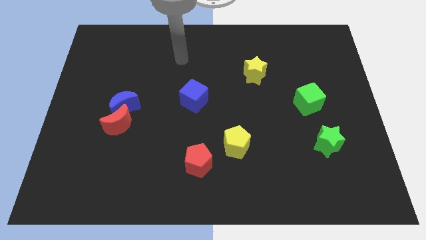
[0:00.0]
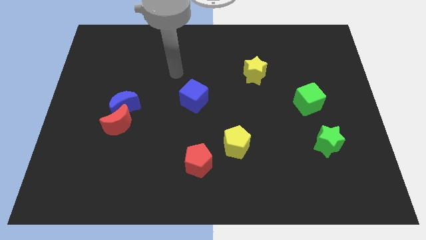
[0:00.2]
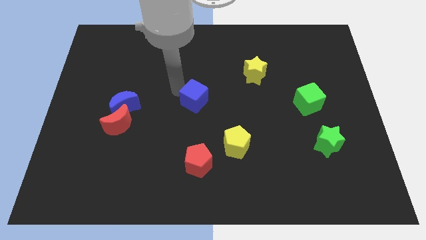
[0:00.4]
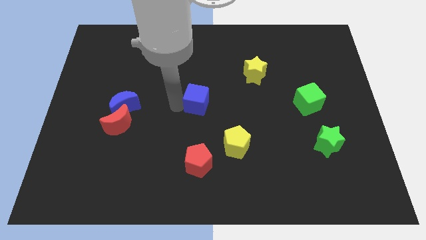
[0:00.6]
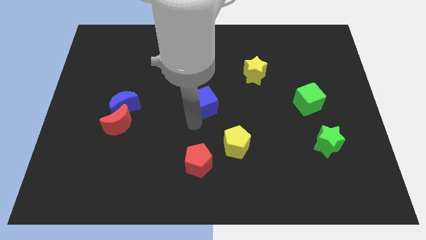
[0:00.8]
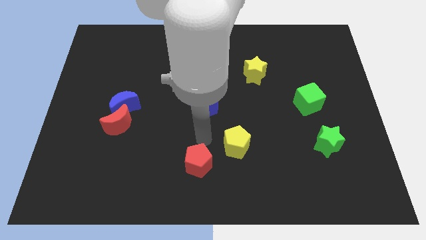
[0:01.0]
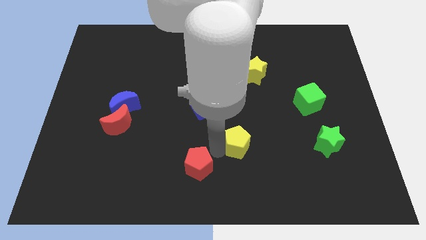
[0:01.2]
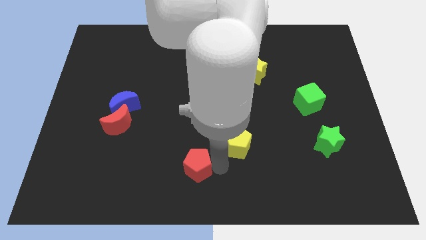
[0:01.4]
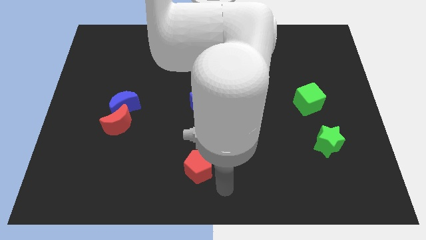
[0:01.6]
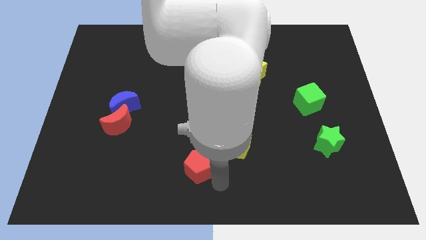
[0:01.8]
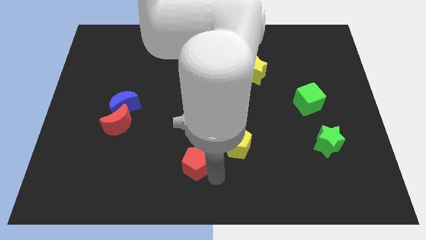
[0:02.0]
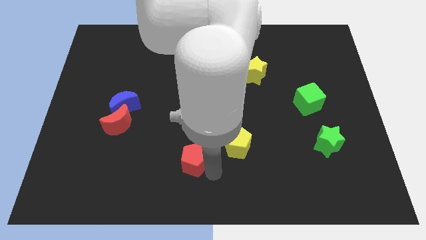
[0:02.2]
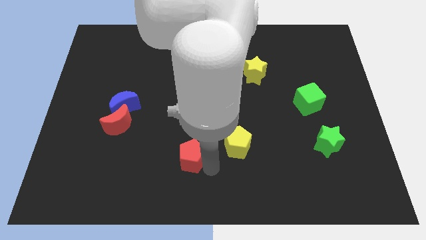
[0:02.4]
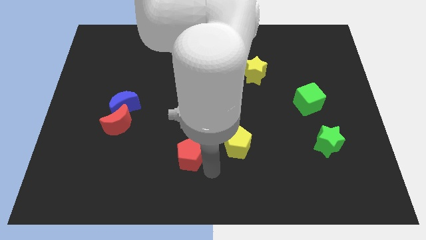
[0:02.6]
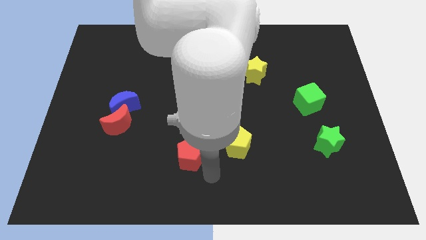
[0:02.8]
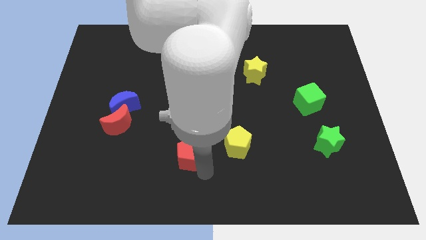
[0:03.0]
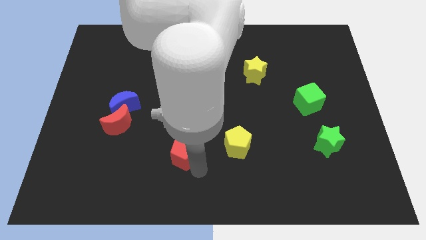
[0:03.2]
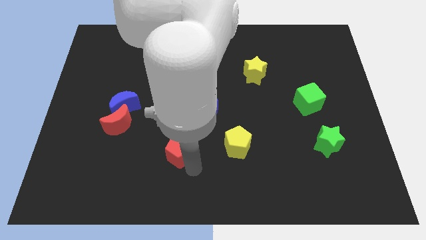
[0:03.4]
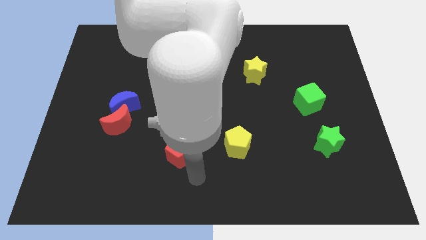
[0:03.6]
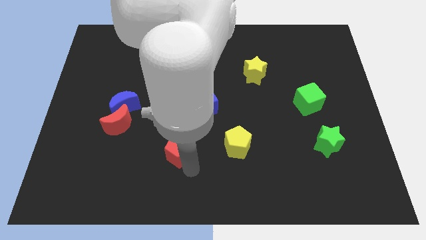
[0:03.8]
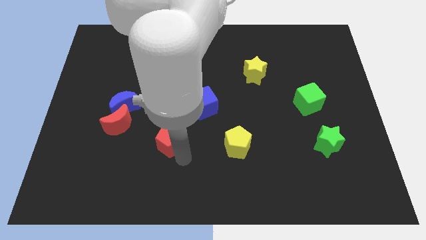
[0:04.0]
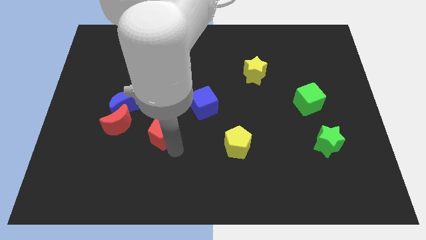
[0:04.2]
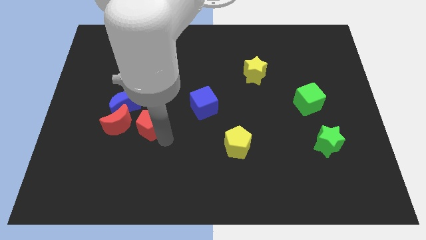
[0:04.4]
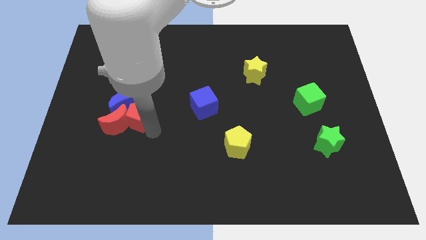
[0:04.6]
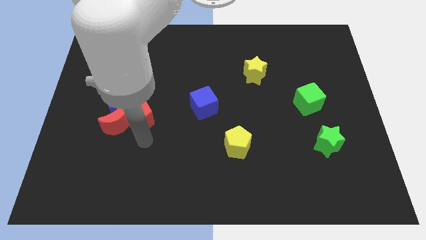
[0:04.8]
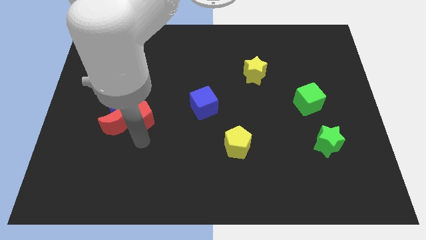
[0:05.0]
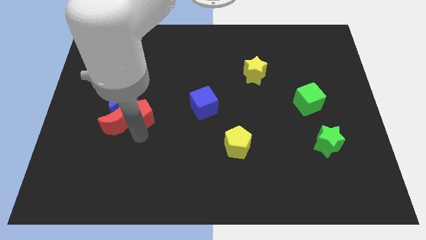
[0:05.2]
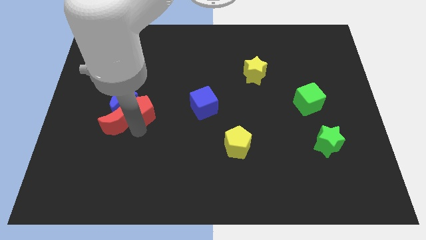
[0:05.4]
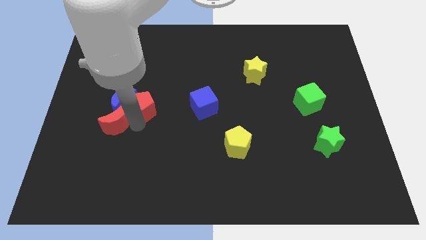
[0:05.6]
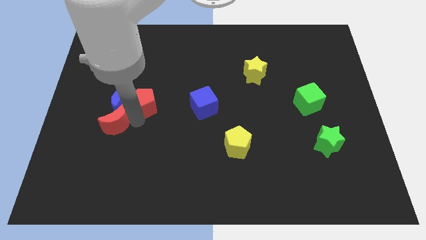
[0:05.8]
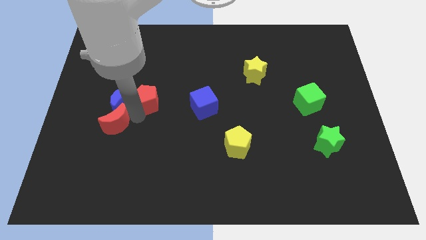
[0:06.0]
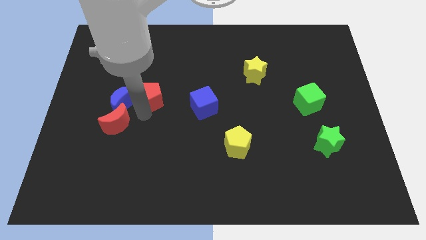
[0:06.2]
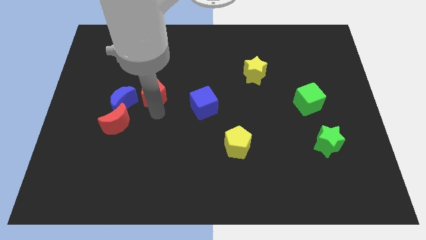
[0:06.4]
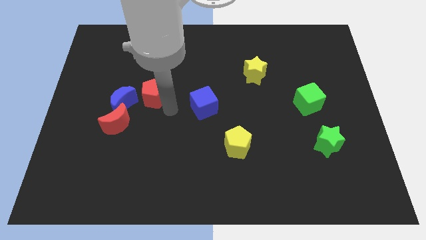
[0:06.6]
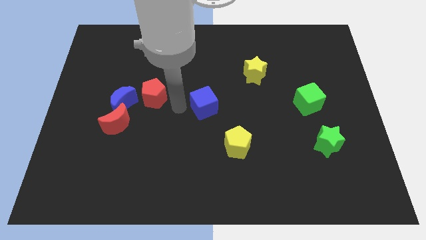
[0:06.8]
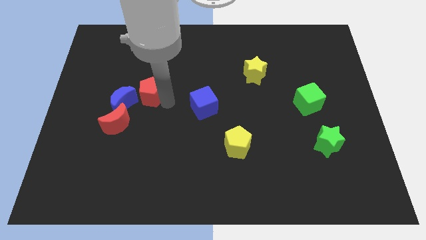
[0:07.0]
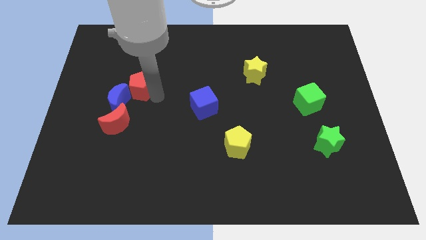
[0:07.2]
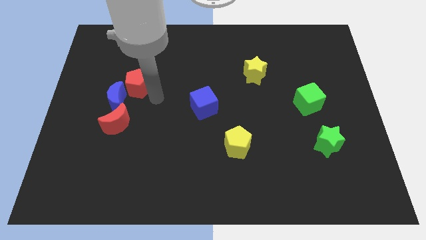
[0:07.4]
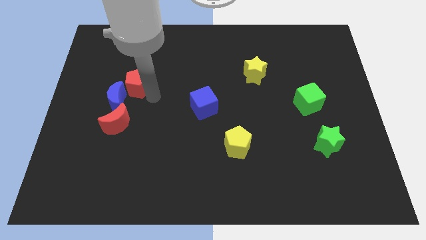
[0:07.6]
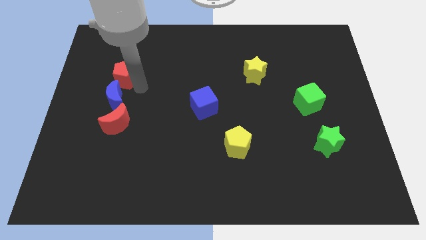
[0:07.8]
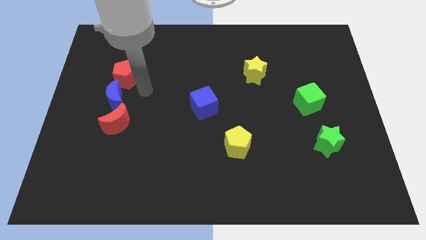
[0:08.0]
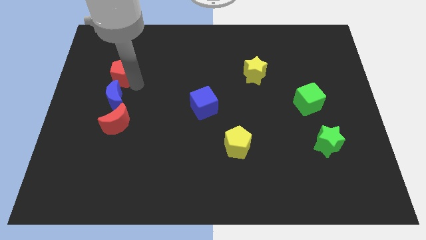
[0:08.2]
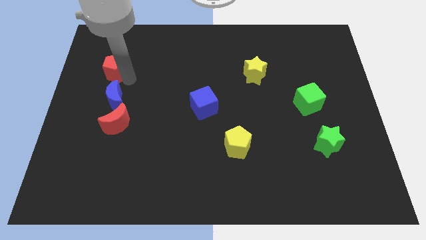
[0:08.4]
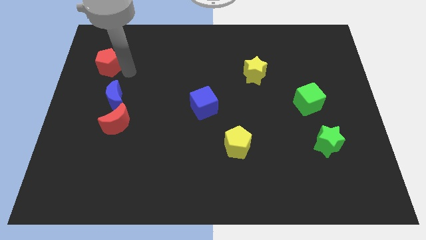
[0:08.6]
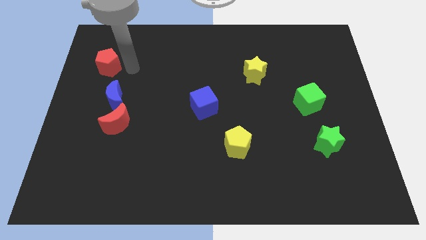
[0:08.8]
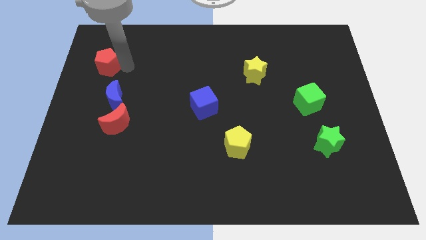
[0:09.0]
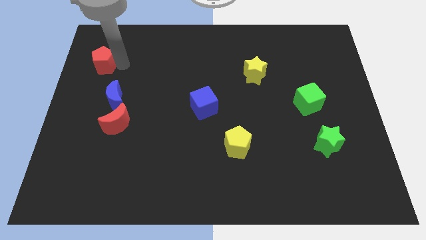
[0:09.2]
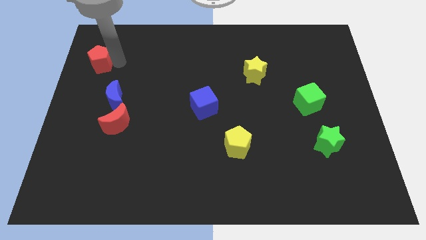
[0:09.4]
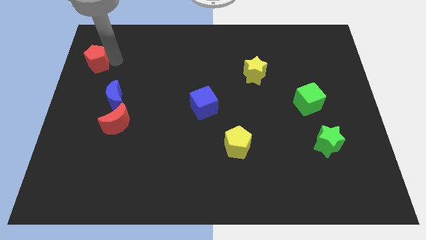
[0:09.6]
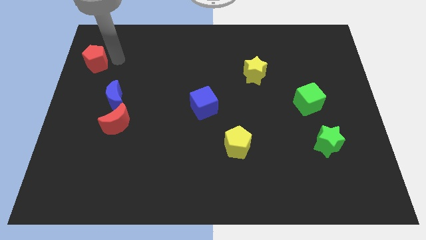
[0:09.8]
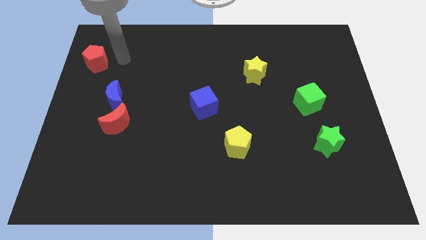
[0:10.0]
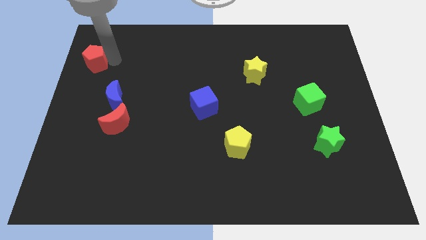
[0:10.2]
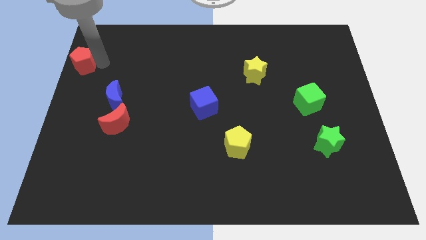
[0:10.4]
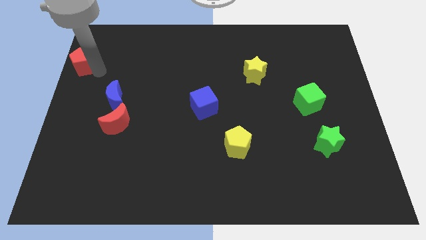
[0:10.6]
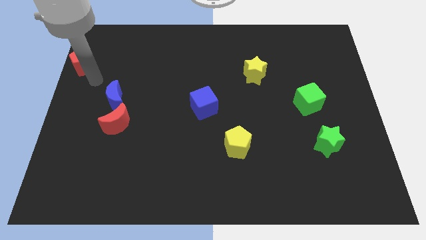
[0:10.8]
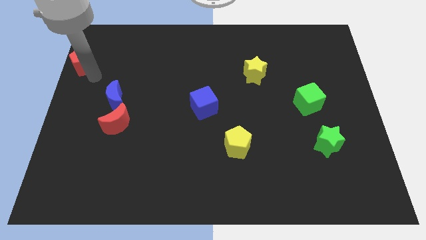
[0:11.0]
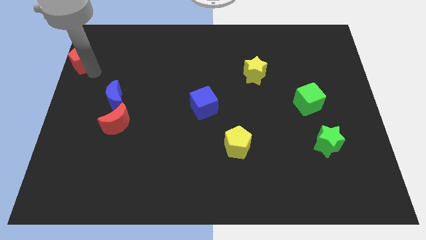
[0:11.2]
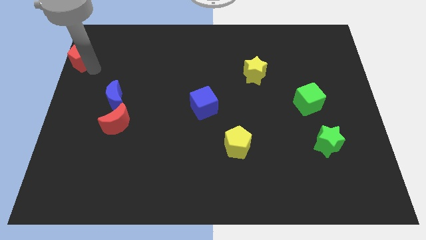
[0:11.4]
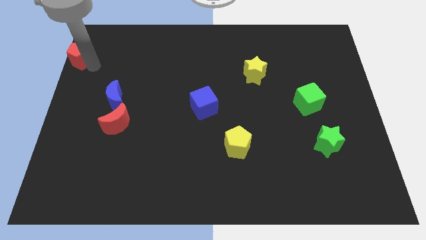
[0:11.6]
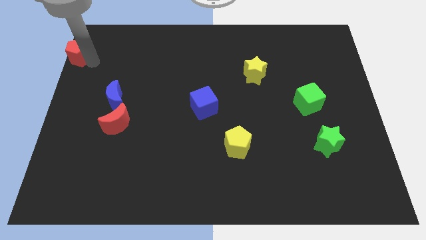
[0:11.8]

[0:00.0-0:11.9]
slide the red pentagon to the top left

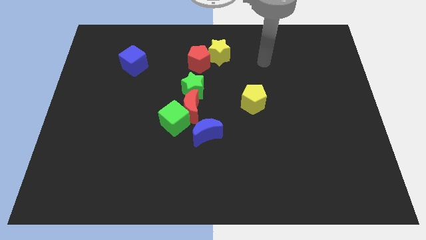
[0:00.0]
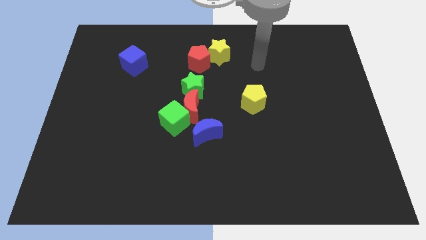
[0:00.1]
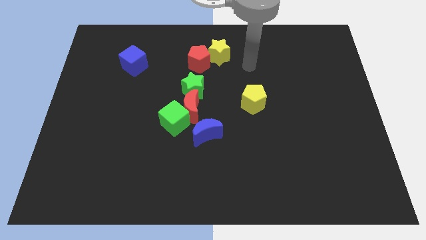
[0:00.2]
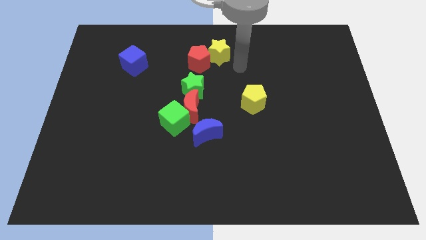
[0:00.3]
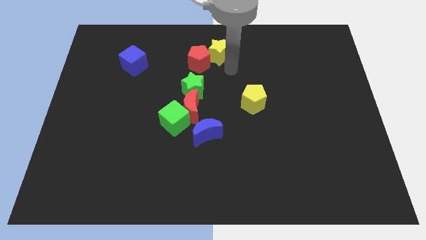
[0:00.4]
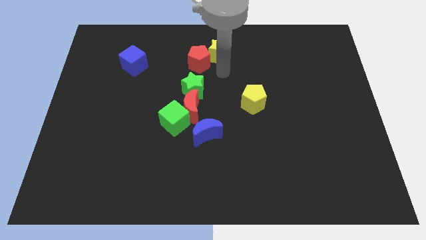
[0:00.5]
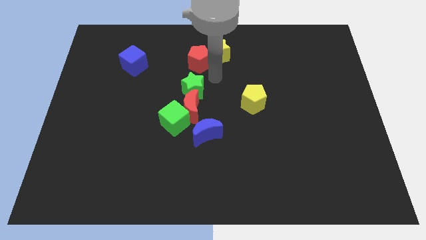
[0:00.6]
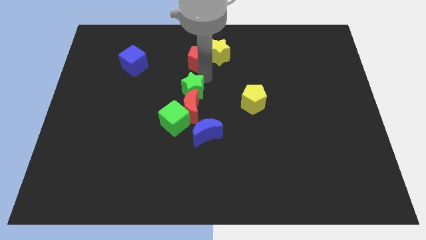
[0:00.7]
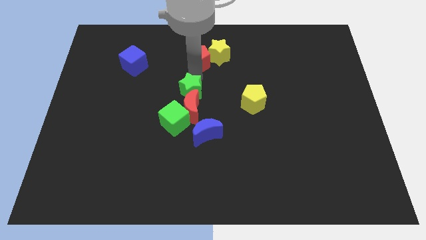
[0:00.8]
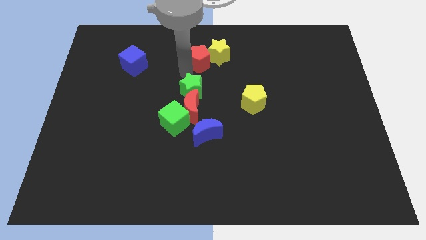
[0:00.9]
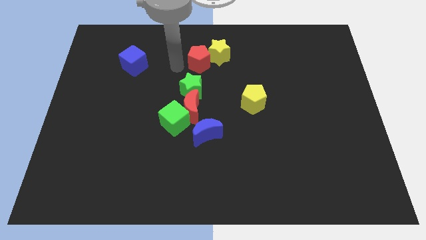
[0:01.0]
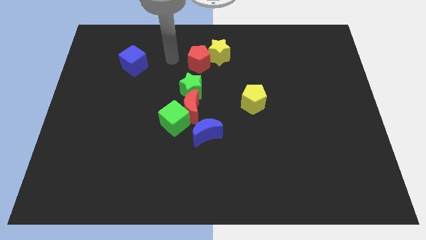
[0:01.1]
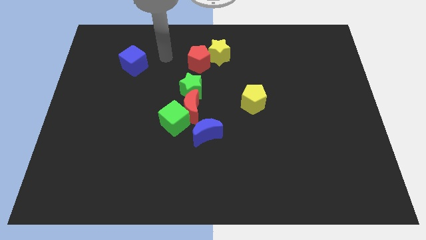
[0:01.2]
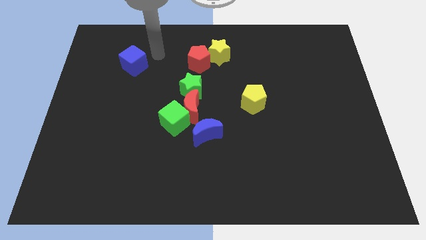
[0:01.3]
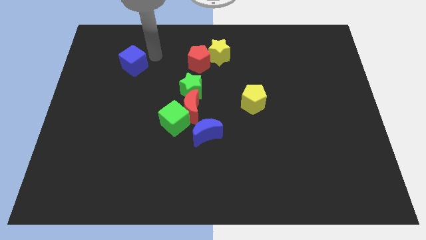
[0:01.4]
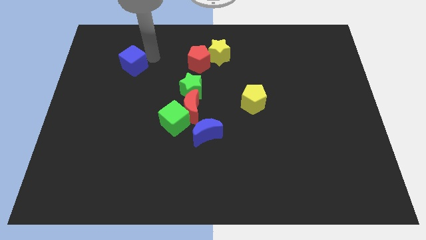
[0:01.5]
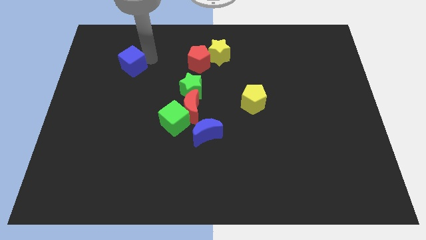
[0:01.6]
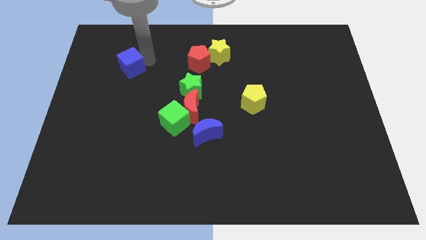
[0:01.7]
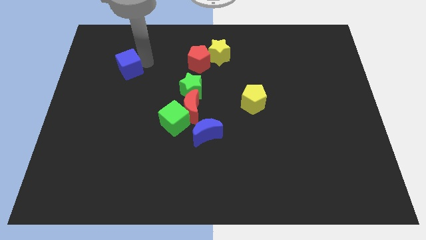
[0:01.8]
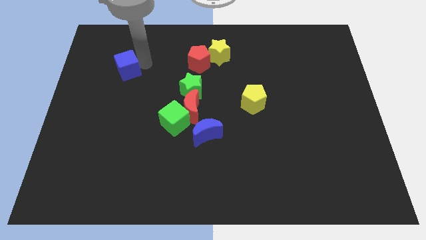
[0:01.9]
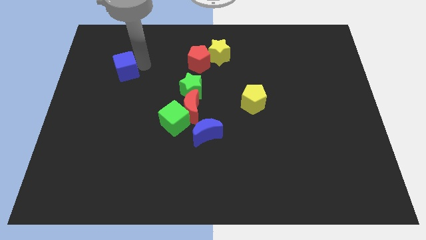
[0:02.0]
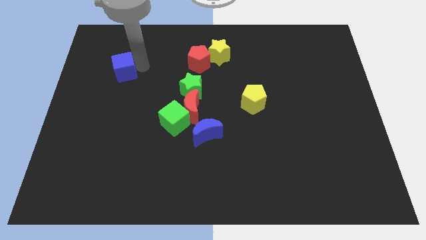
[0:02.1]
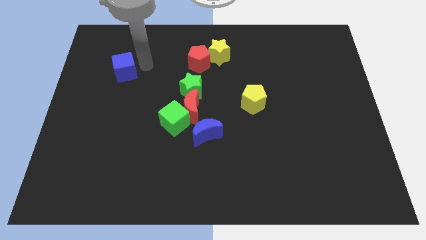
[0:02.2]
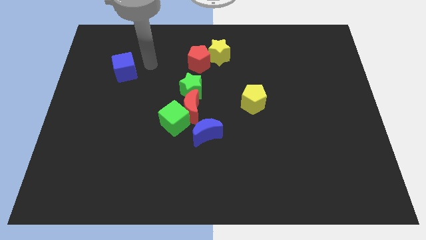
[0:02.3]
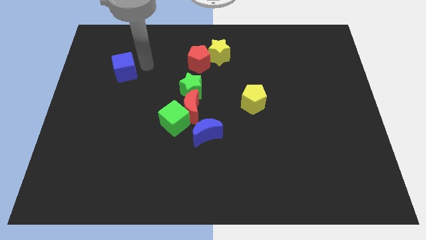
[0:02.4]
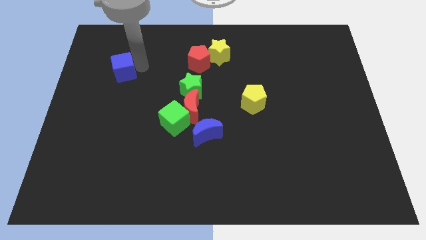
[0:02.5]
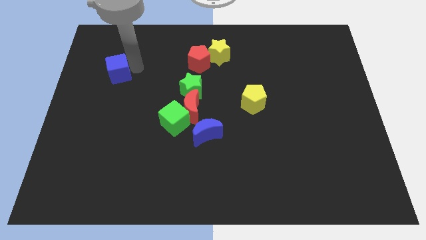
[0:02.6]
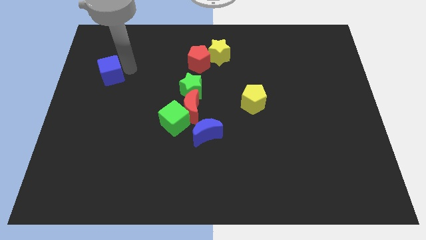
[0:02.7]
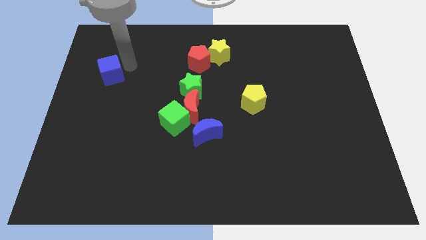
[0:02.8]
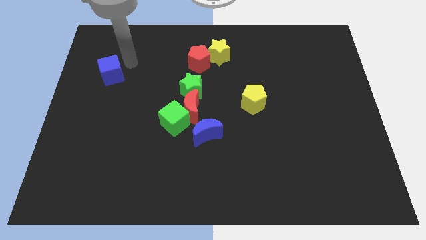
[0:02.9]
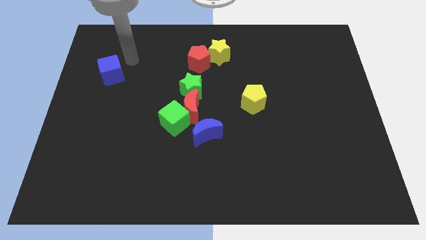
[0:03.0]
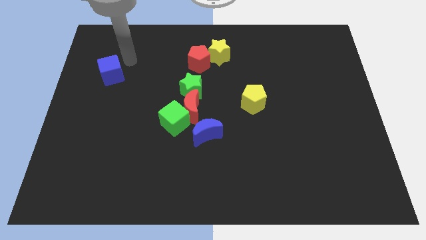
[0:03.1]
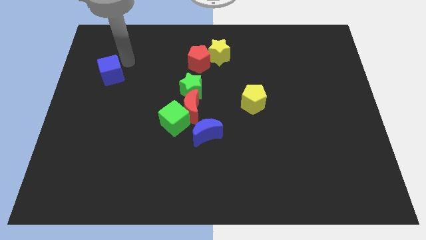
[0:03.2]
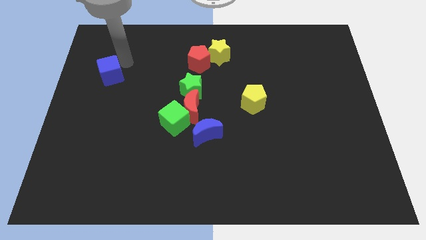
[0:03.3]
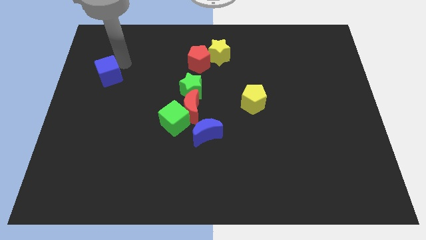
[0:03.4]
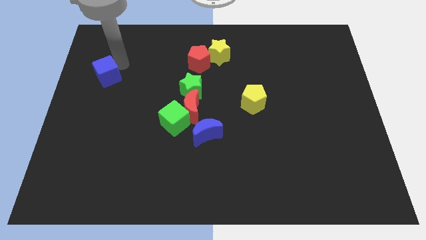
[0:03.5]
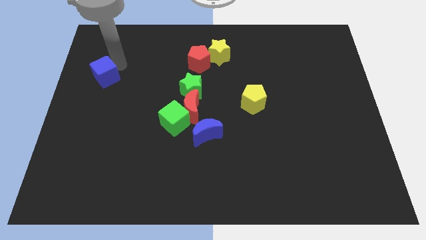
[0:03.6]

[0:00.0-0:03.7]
put the blue cube to the left side
